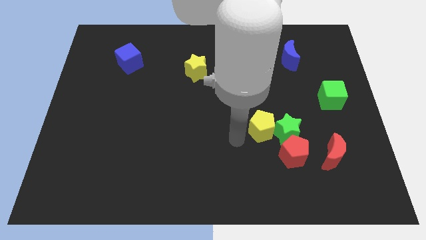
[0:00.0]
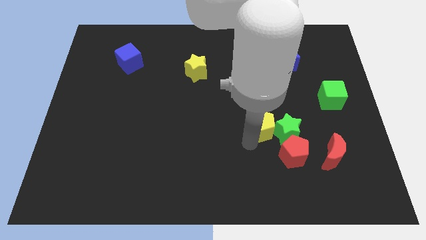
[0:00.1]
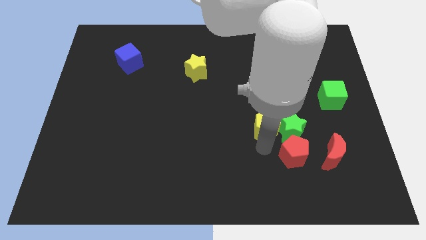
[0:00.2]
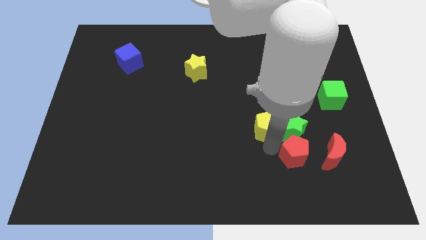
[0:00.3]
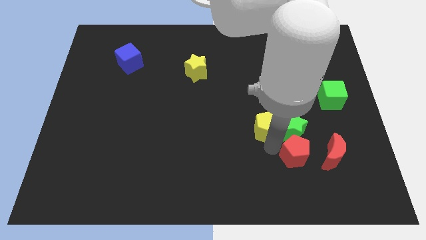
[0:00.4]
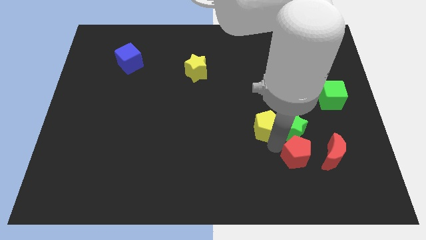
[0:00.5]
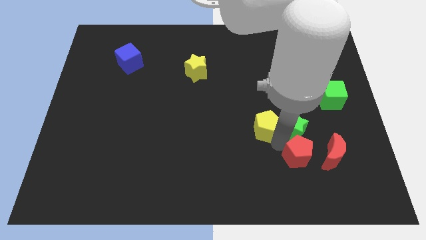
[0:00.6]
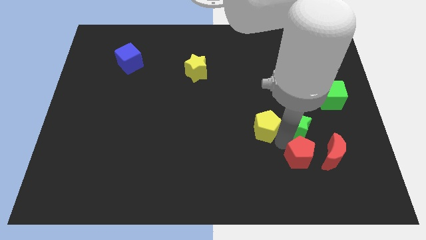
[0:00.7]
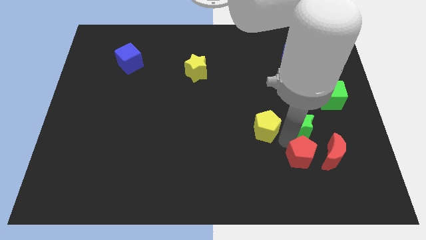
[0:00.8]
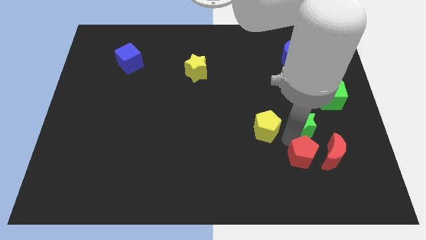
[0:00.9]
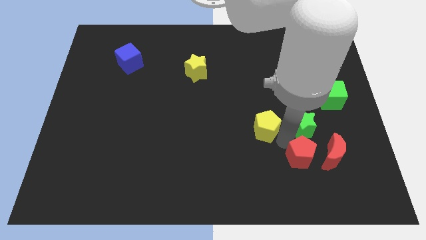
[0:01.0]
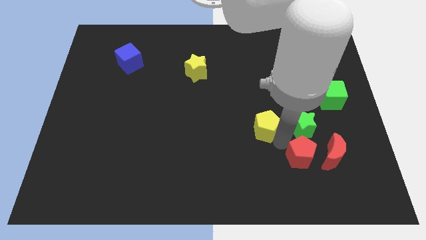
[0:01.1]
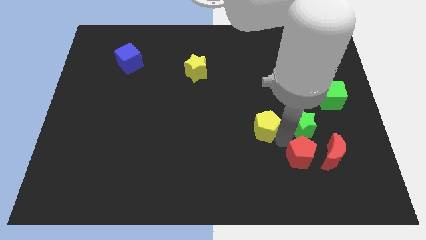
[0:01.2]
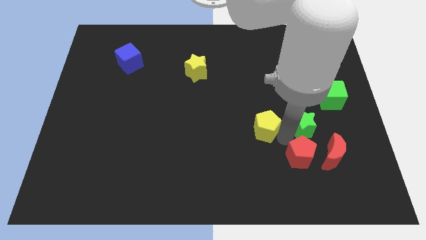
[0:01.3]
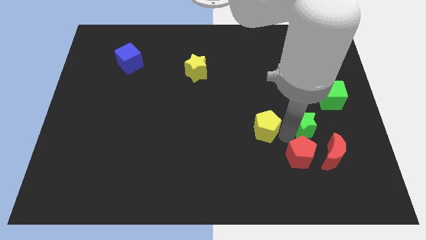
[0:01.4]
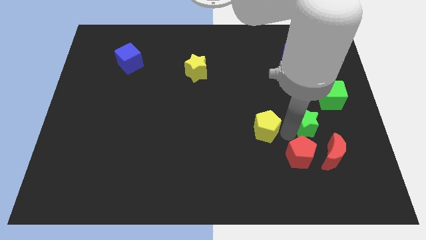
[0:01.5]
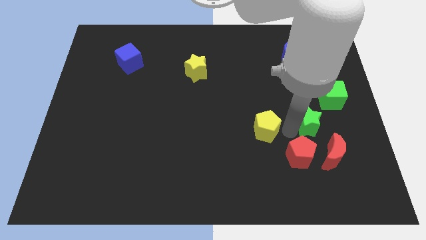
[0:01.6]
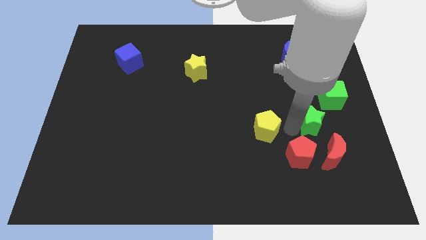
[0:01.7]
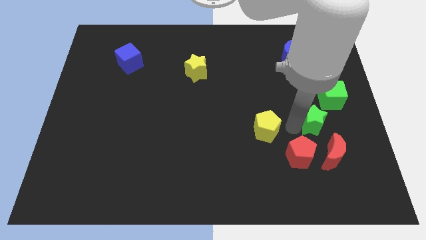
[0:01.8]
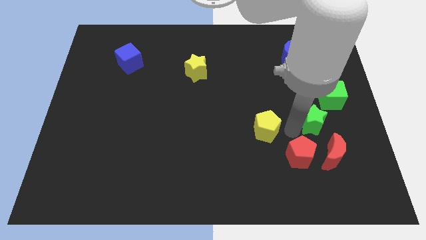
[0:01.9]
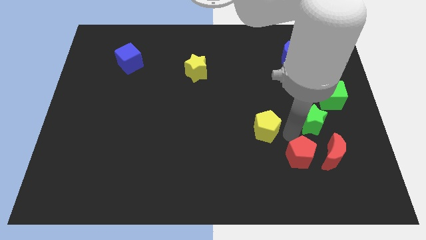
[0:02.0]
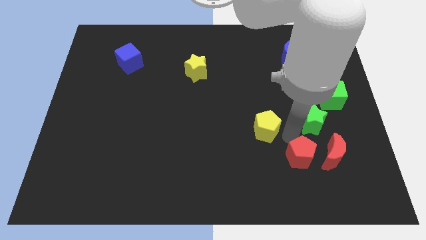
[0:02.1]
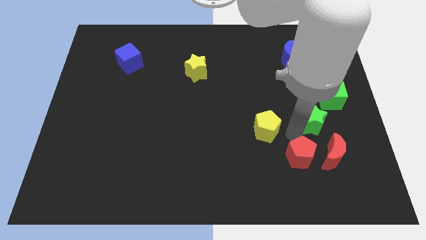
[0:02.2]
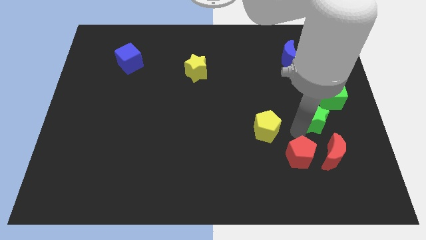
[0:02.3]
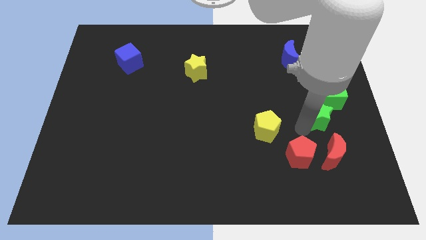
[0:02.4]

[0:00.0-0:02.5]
move the green star away from the red pentagon and yellow pentagon

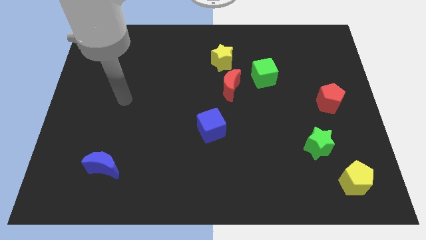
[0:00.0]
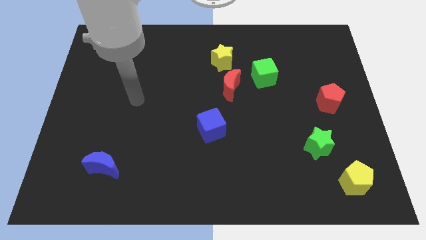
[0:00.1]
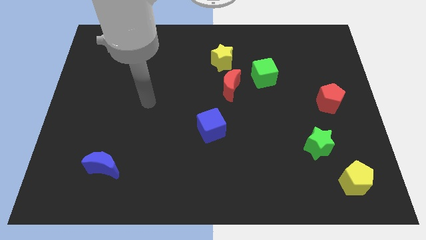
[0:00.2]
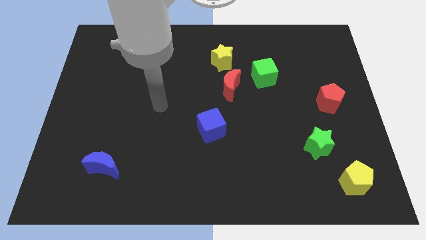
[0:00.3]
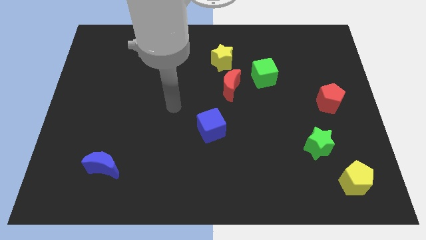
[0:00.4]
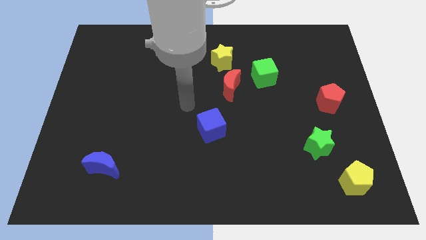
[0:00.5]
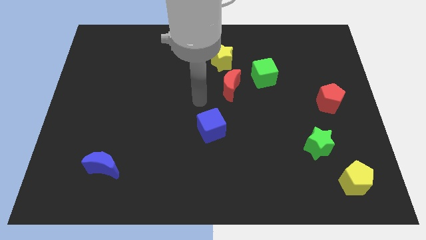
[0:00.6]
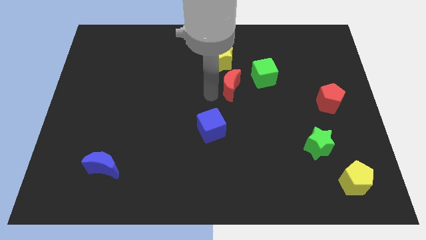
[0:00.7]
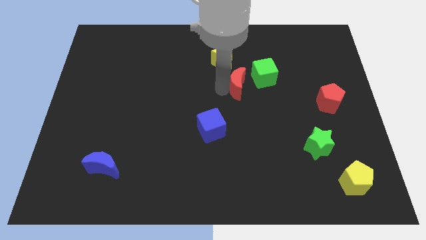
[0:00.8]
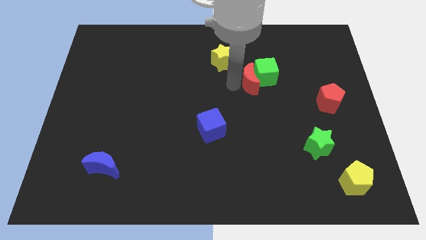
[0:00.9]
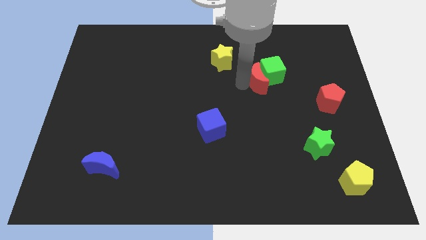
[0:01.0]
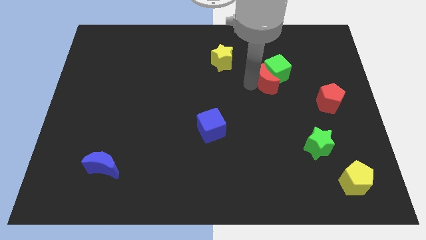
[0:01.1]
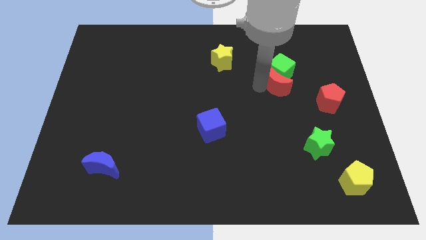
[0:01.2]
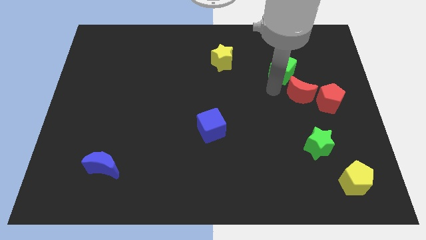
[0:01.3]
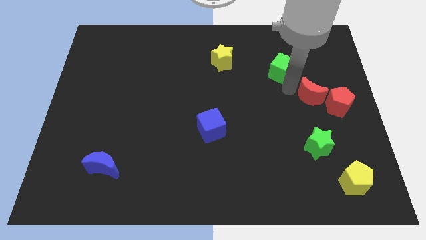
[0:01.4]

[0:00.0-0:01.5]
pull the green cube apart from the red moon

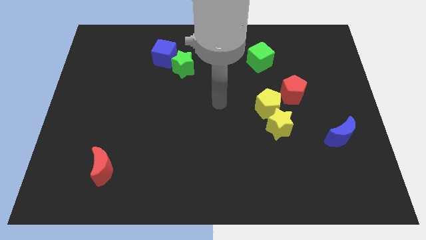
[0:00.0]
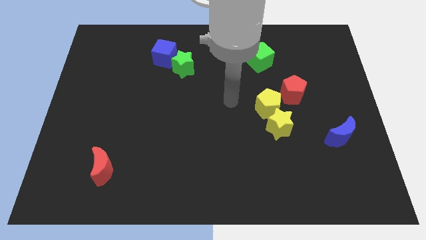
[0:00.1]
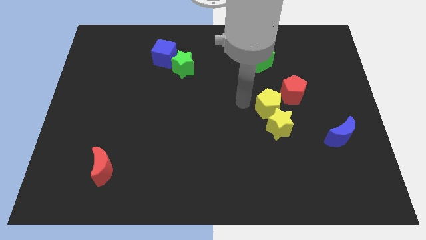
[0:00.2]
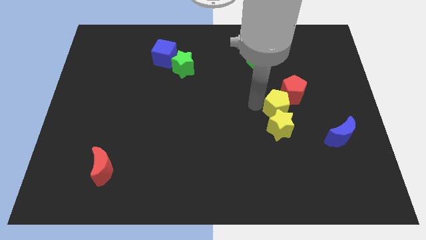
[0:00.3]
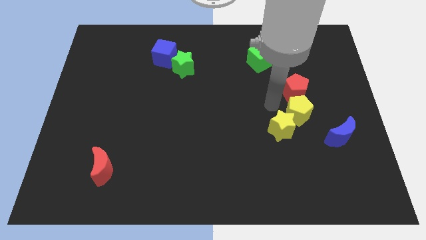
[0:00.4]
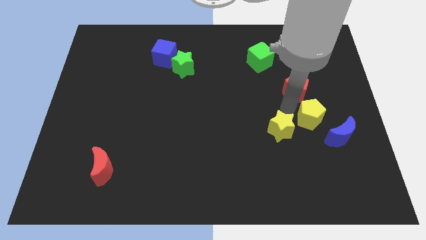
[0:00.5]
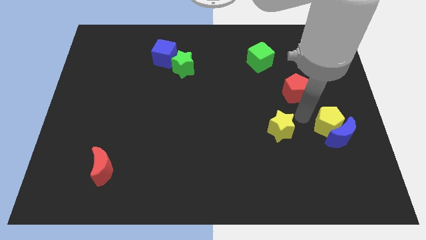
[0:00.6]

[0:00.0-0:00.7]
pull the yellow star apart from the yellow pentagon

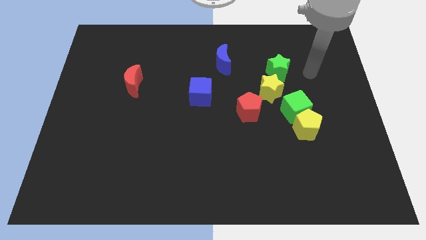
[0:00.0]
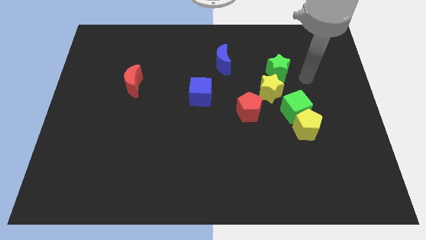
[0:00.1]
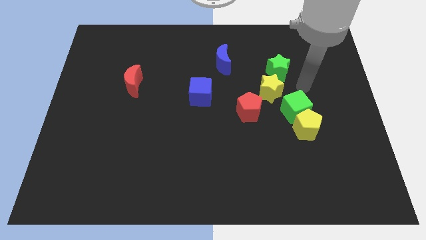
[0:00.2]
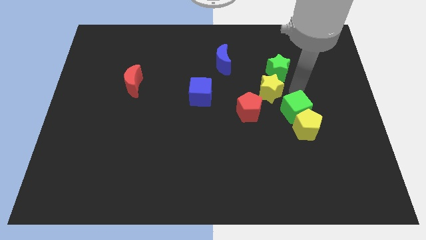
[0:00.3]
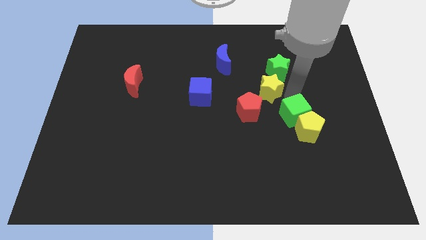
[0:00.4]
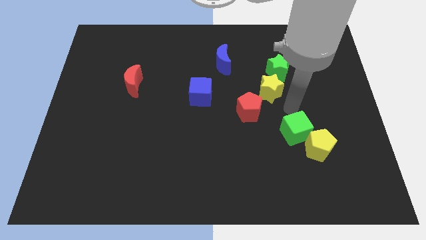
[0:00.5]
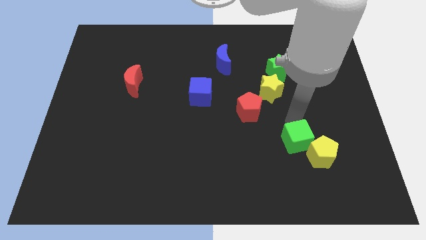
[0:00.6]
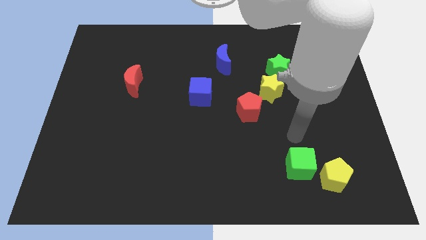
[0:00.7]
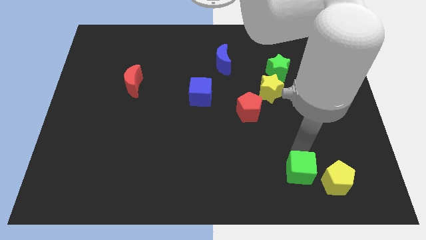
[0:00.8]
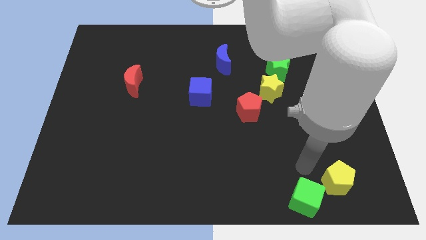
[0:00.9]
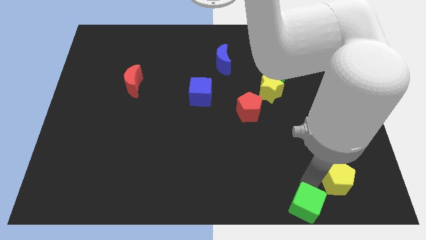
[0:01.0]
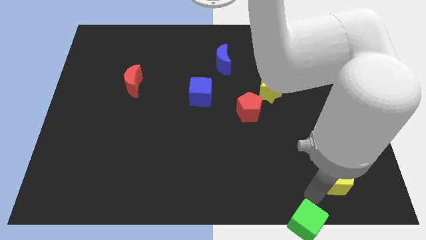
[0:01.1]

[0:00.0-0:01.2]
separate the yellow pentagon from the green cube

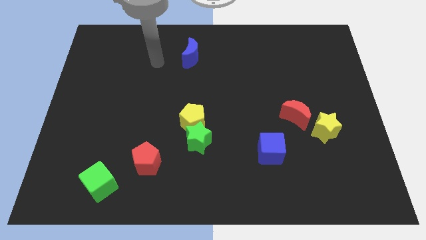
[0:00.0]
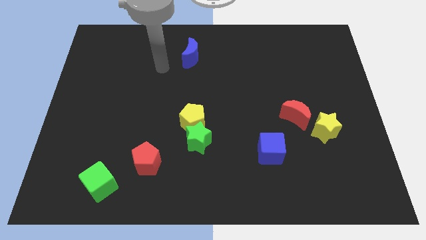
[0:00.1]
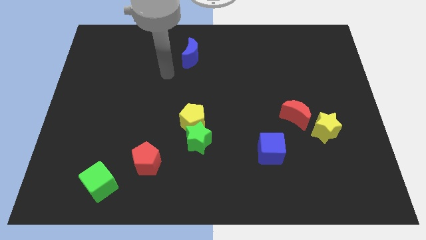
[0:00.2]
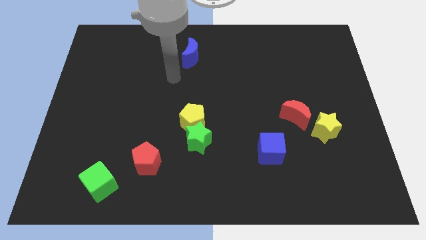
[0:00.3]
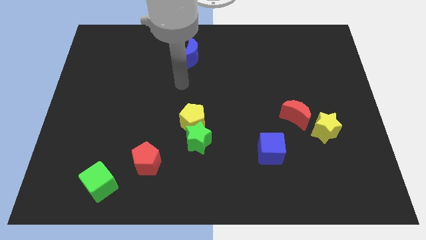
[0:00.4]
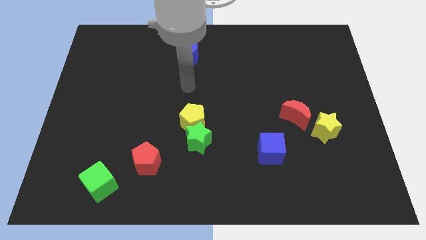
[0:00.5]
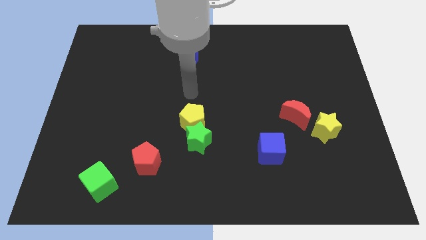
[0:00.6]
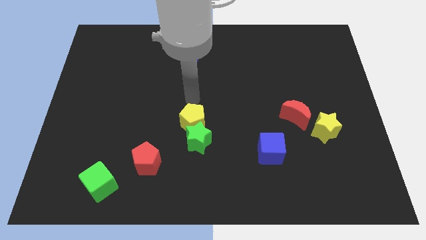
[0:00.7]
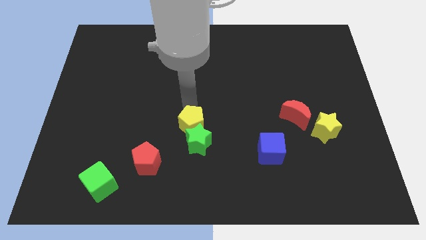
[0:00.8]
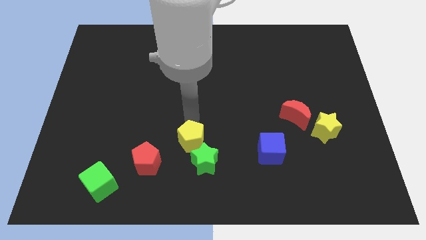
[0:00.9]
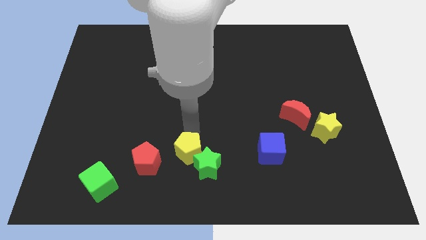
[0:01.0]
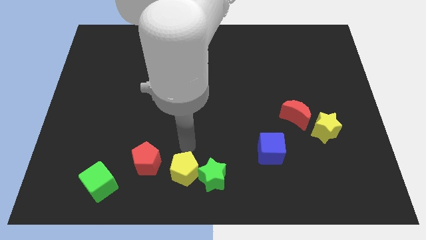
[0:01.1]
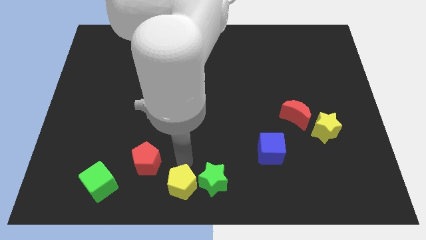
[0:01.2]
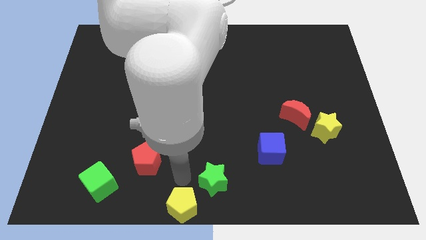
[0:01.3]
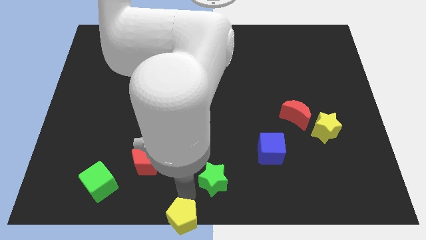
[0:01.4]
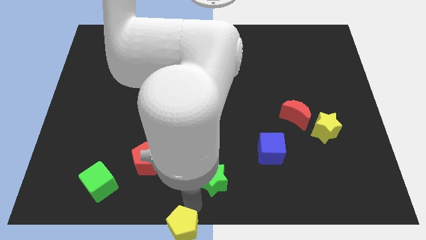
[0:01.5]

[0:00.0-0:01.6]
pull the green star apart from the yellow pentagon

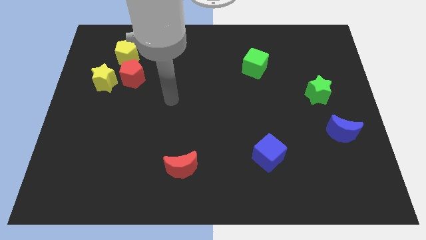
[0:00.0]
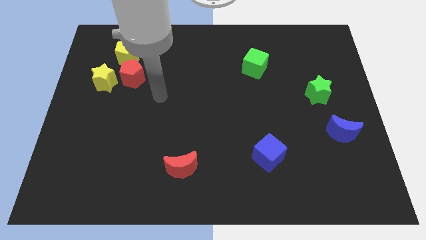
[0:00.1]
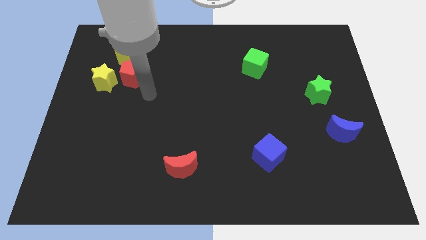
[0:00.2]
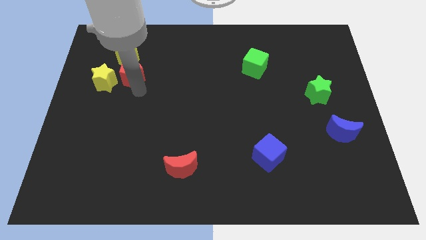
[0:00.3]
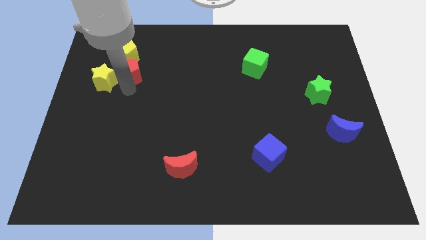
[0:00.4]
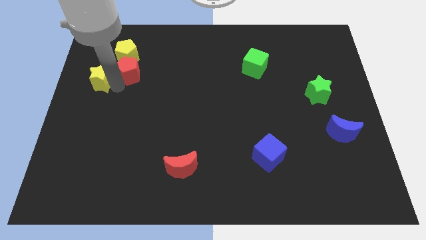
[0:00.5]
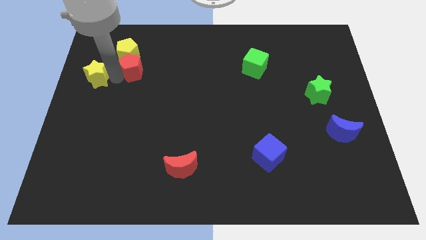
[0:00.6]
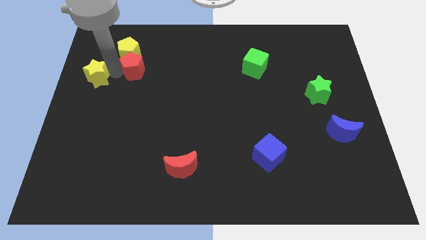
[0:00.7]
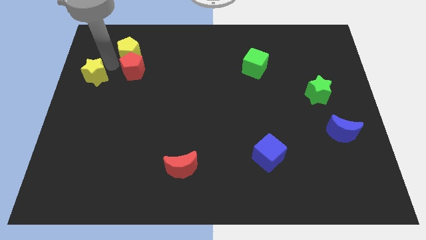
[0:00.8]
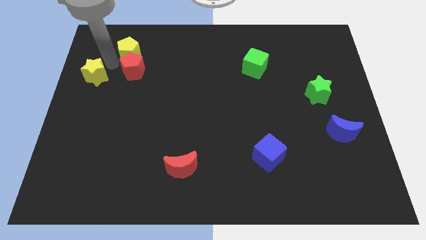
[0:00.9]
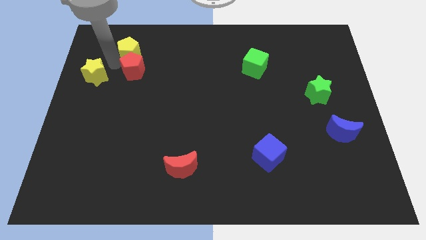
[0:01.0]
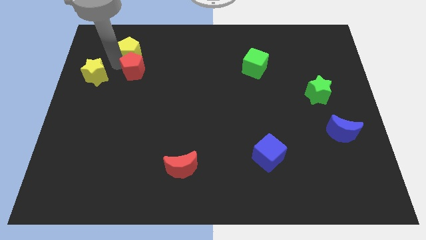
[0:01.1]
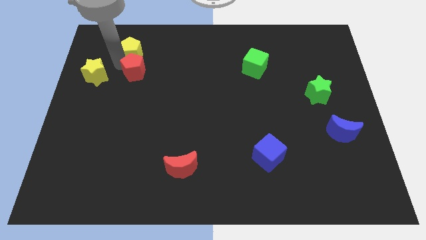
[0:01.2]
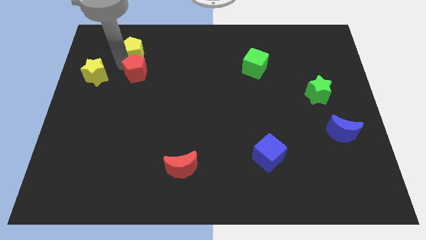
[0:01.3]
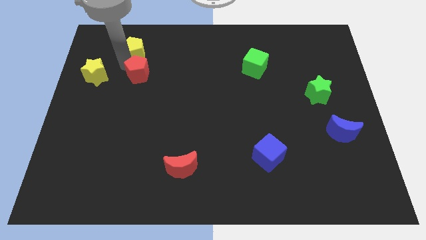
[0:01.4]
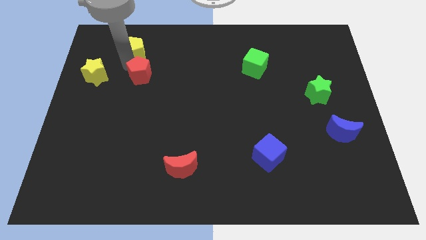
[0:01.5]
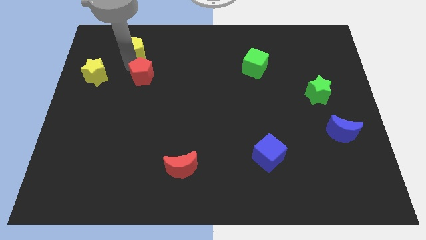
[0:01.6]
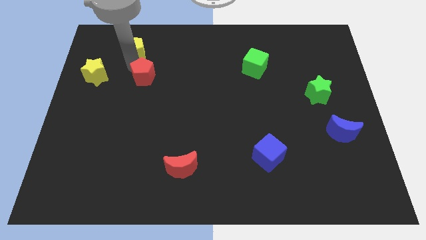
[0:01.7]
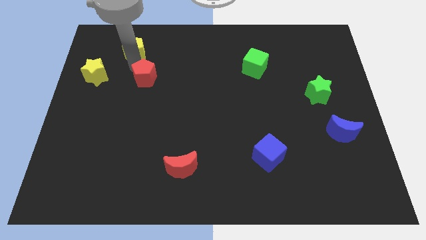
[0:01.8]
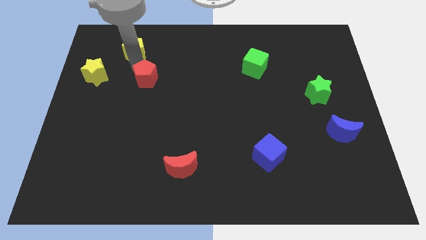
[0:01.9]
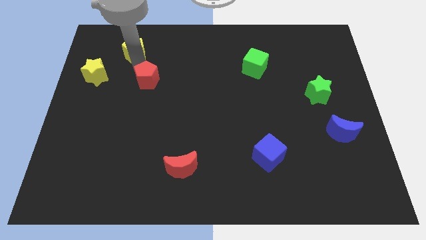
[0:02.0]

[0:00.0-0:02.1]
pull the red pentagon apart from the yellow star and yellow pentagon
